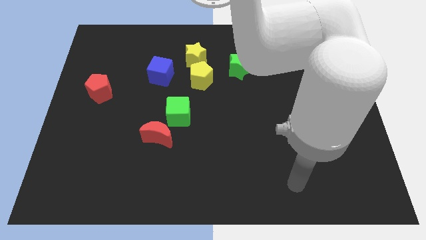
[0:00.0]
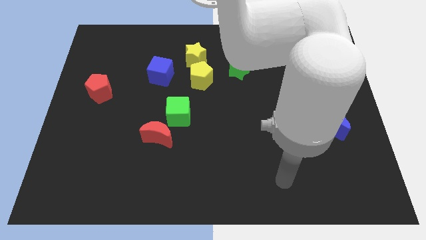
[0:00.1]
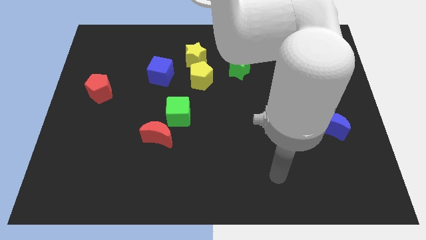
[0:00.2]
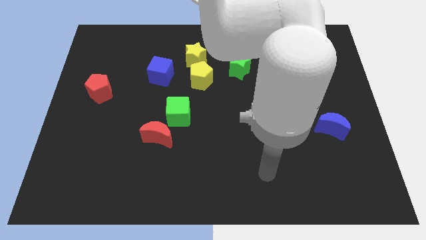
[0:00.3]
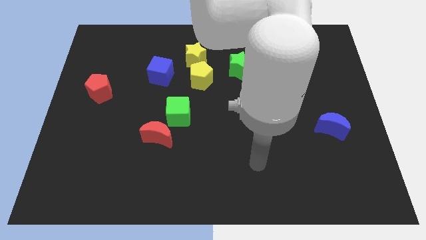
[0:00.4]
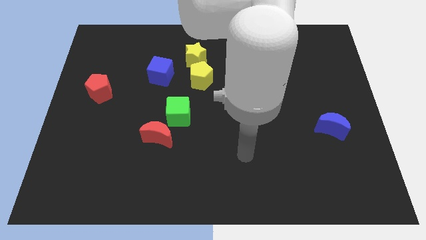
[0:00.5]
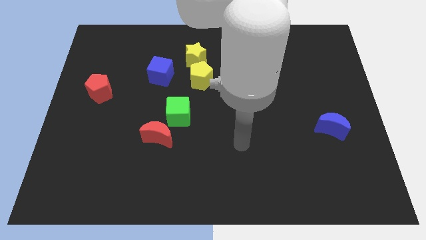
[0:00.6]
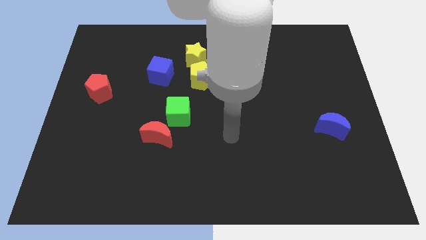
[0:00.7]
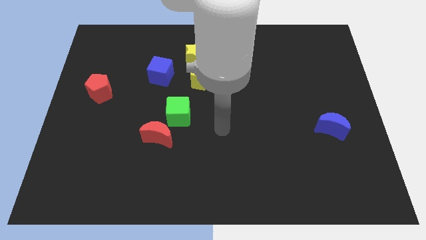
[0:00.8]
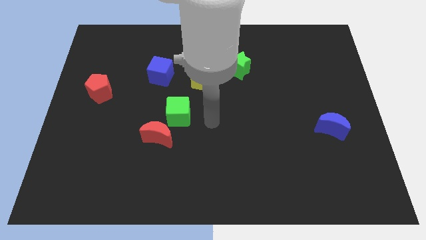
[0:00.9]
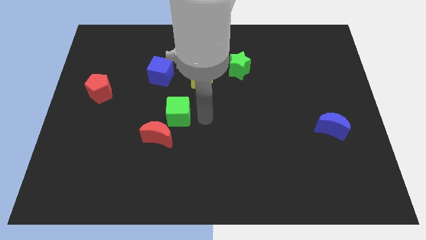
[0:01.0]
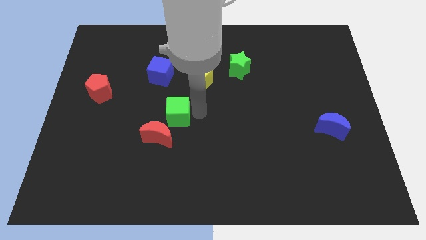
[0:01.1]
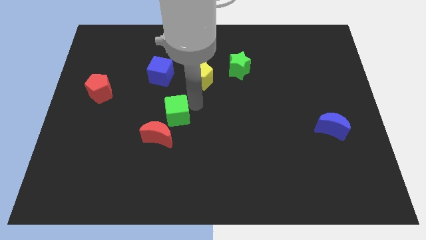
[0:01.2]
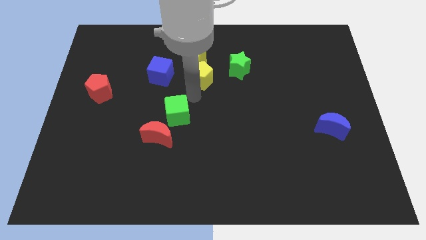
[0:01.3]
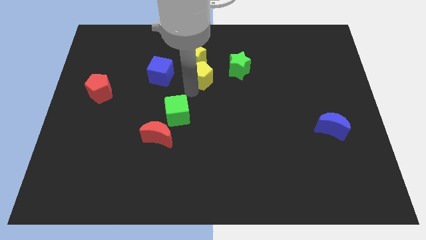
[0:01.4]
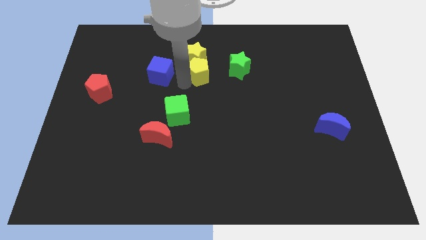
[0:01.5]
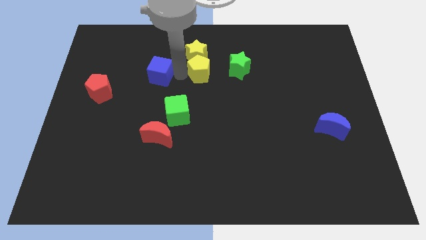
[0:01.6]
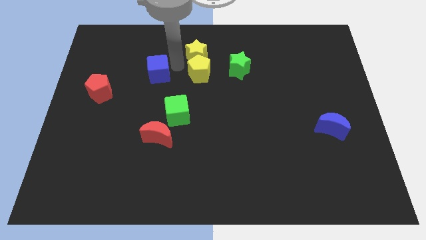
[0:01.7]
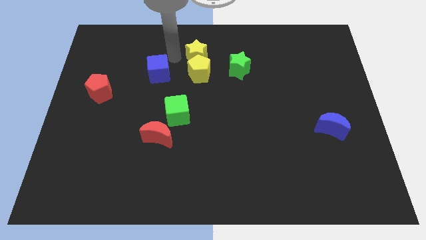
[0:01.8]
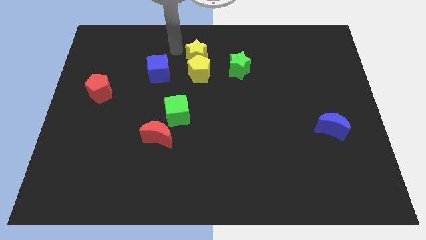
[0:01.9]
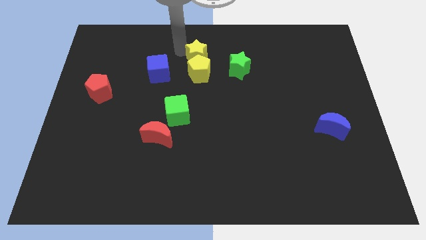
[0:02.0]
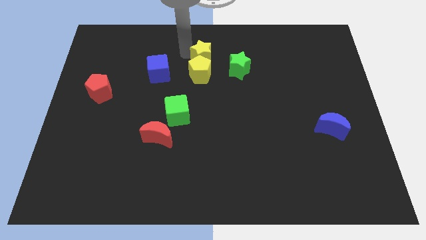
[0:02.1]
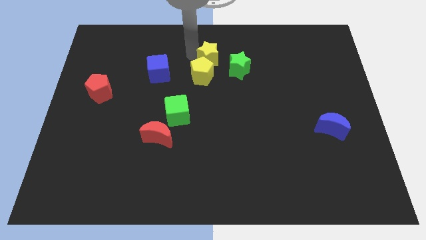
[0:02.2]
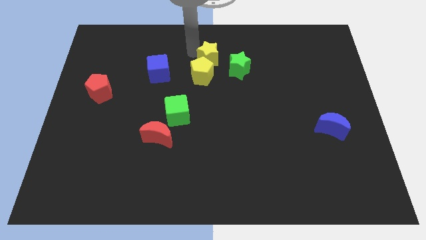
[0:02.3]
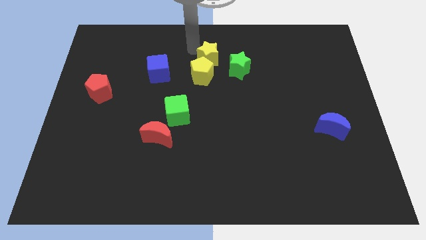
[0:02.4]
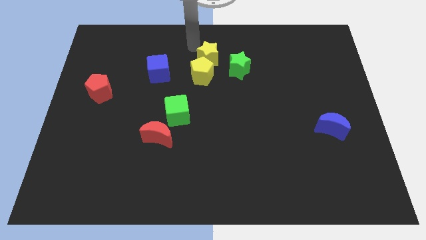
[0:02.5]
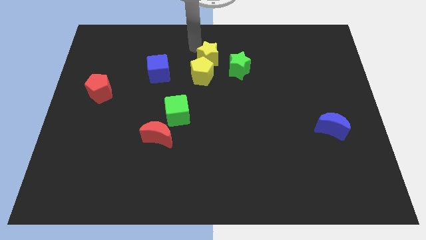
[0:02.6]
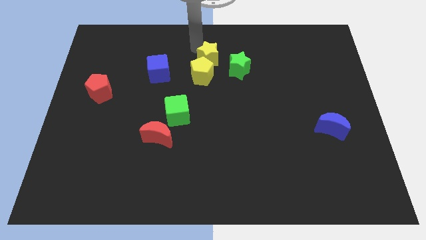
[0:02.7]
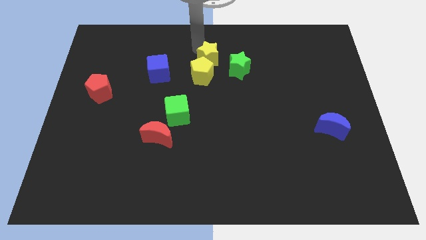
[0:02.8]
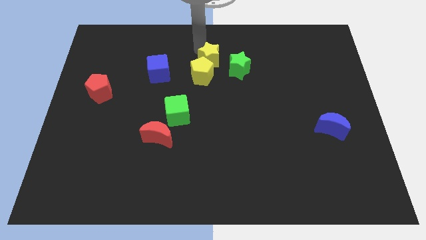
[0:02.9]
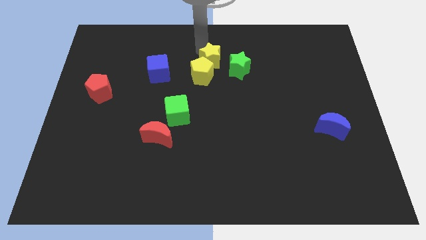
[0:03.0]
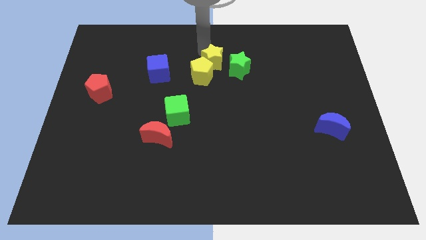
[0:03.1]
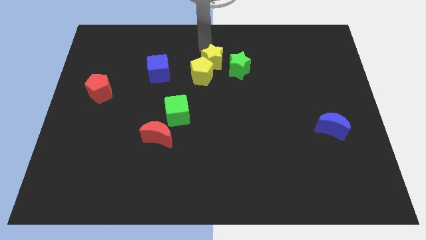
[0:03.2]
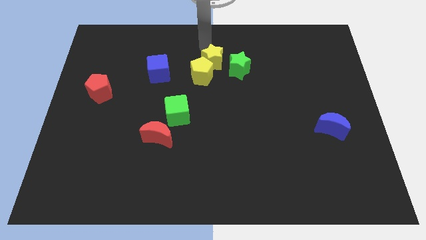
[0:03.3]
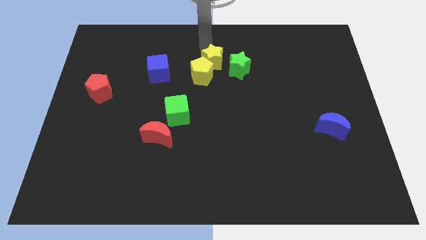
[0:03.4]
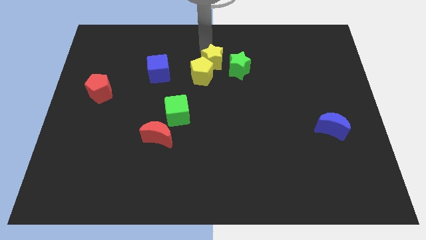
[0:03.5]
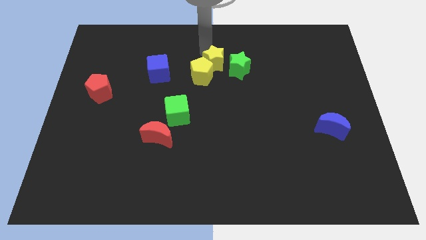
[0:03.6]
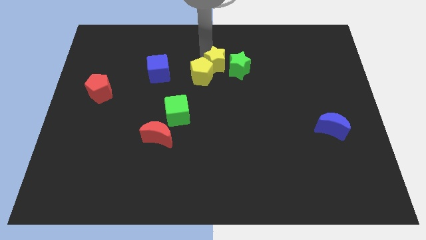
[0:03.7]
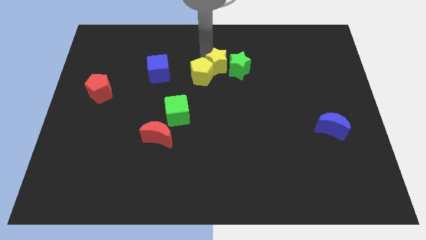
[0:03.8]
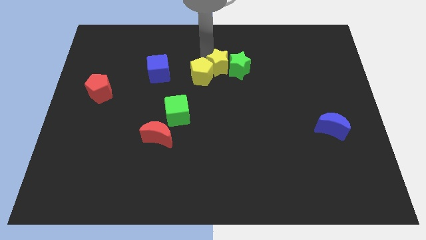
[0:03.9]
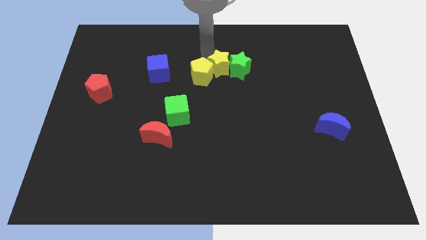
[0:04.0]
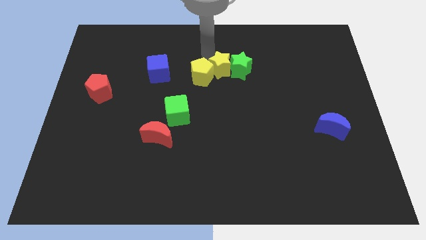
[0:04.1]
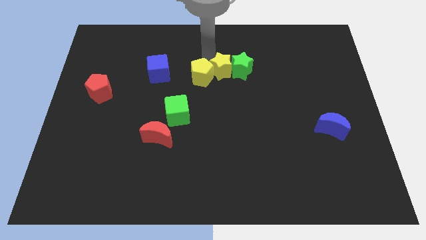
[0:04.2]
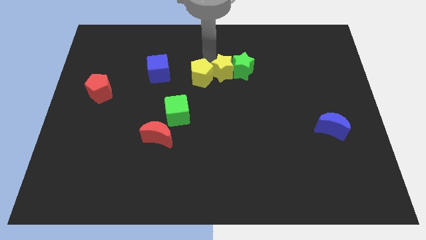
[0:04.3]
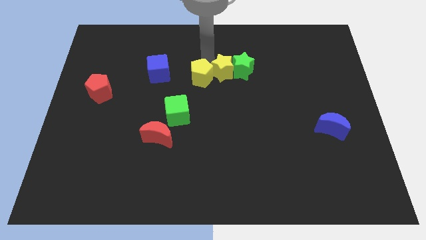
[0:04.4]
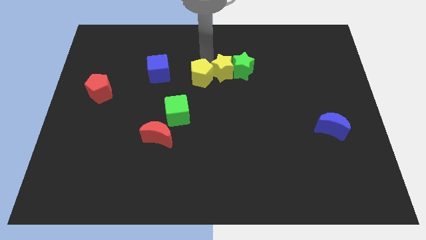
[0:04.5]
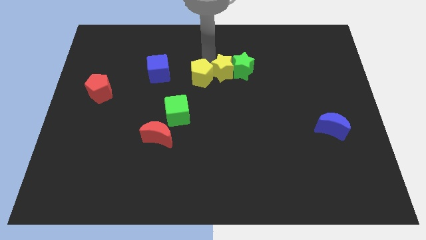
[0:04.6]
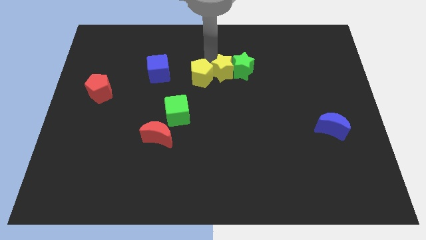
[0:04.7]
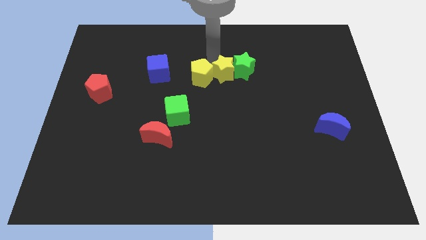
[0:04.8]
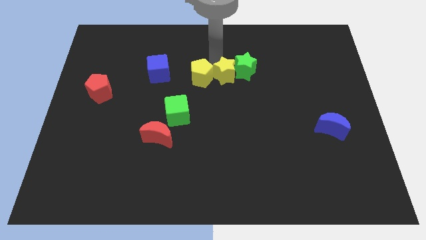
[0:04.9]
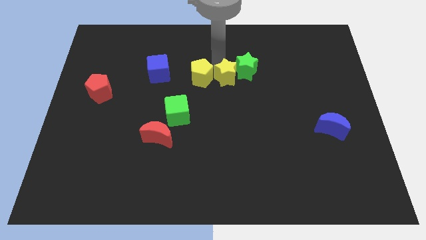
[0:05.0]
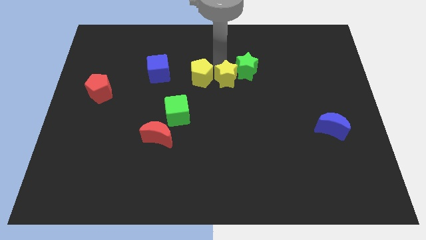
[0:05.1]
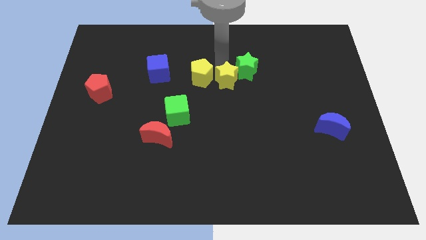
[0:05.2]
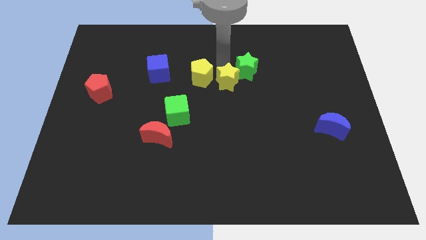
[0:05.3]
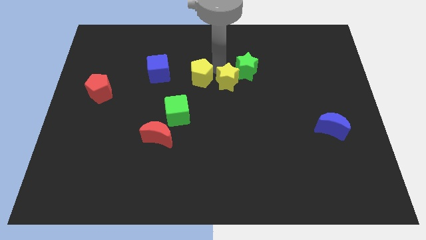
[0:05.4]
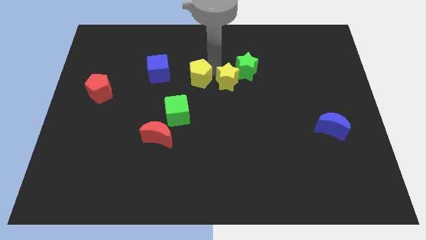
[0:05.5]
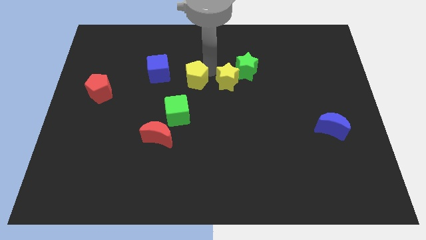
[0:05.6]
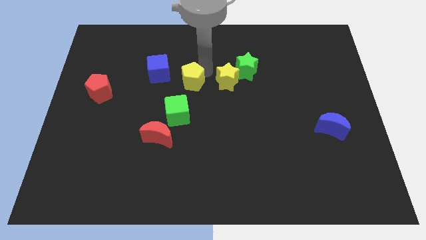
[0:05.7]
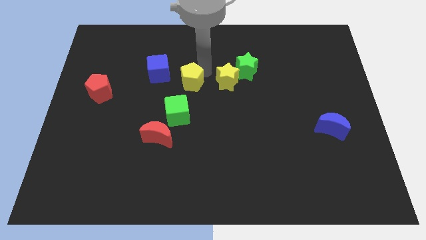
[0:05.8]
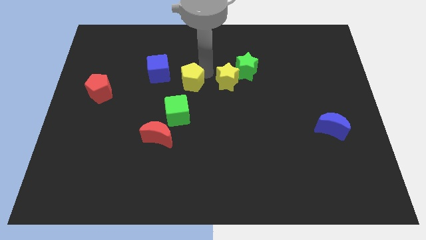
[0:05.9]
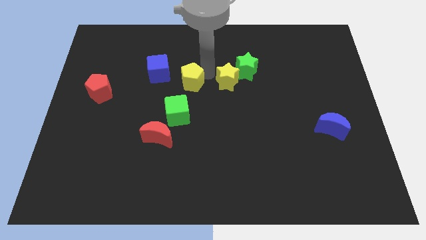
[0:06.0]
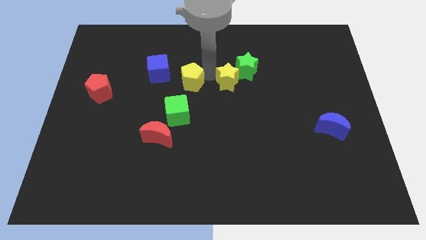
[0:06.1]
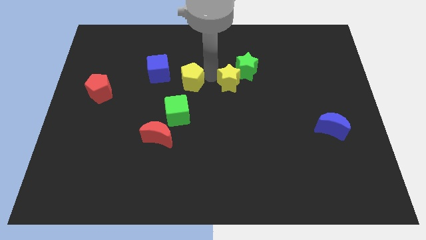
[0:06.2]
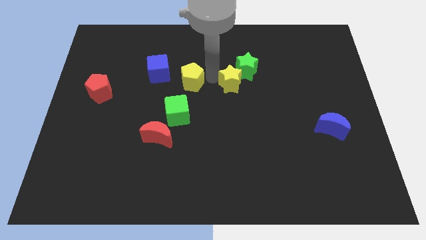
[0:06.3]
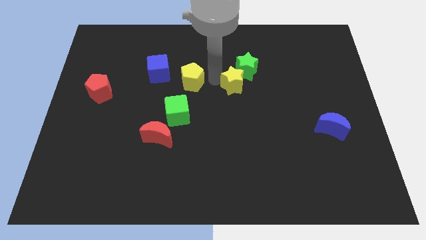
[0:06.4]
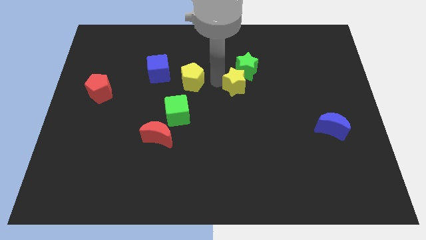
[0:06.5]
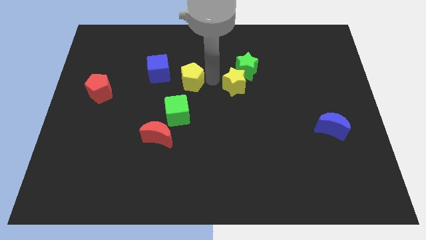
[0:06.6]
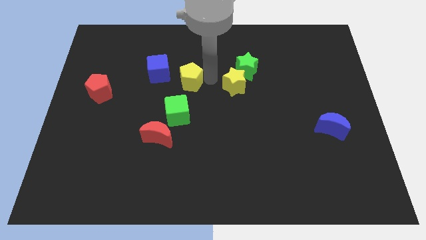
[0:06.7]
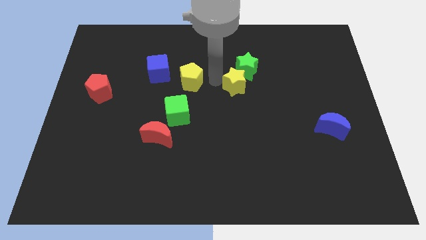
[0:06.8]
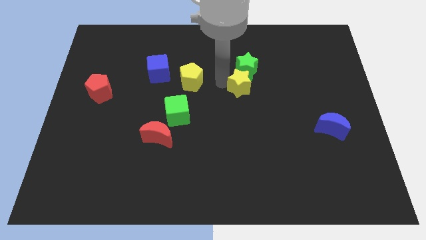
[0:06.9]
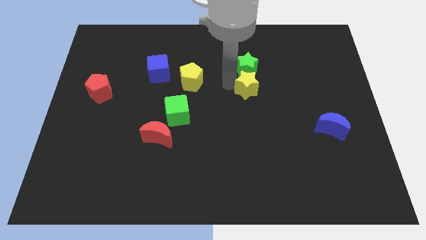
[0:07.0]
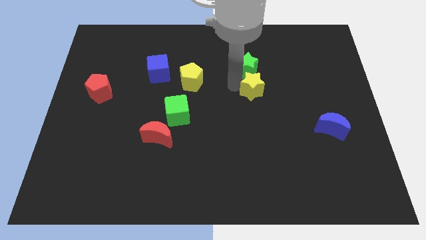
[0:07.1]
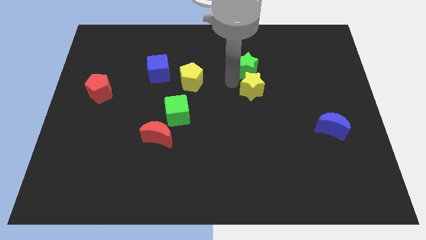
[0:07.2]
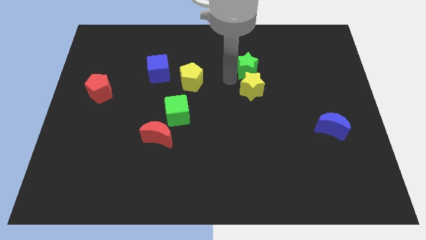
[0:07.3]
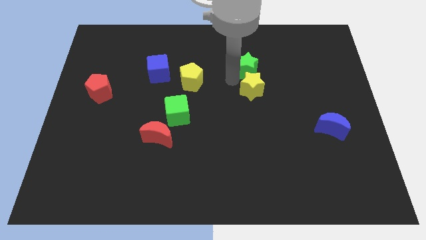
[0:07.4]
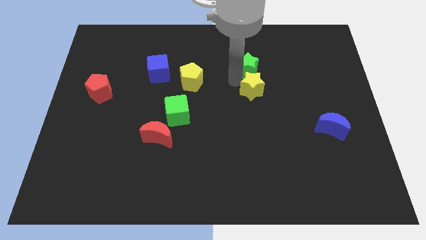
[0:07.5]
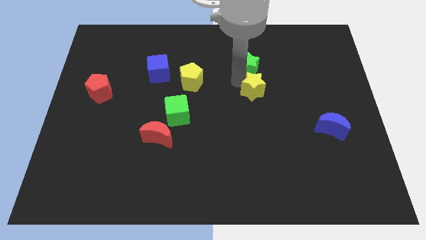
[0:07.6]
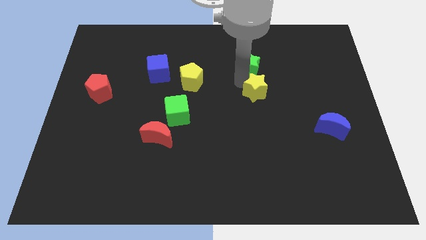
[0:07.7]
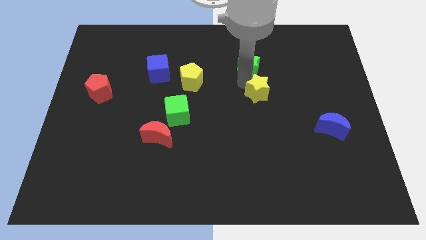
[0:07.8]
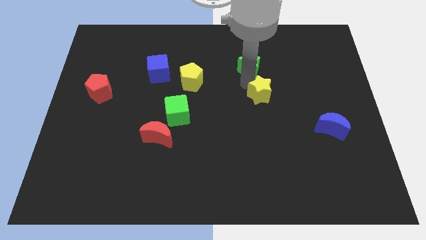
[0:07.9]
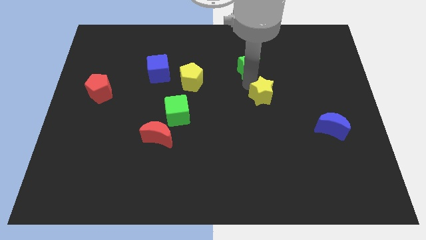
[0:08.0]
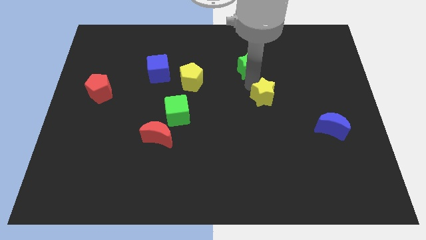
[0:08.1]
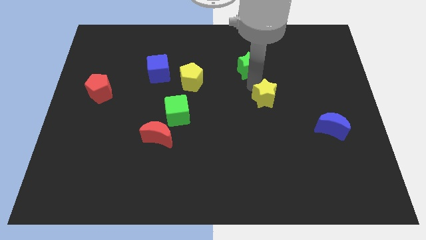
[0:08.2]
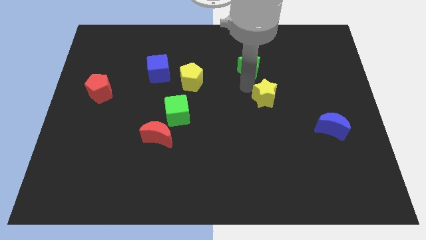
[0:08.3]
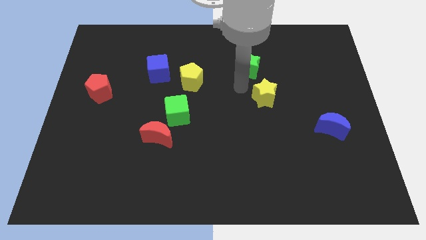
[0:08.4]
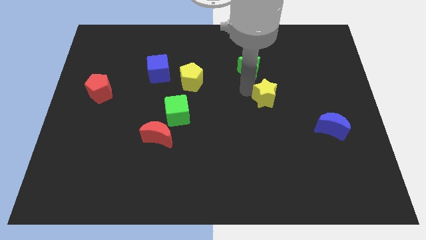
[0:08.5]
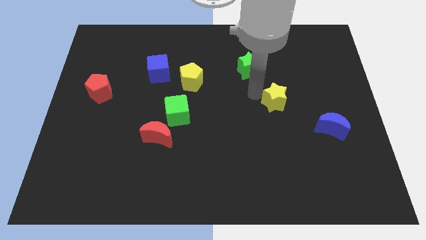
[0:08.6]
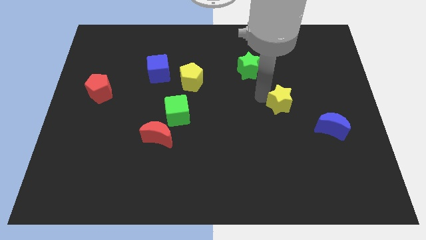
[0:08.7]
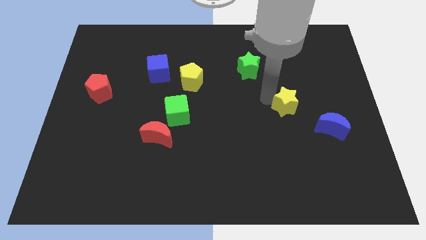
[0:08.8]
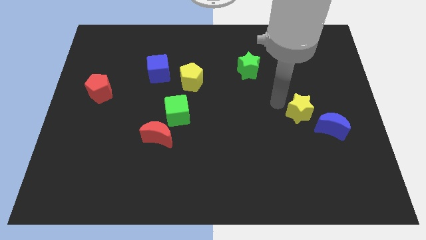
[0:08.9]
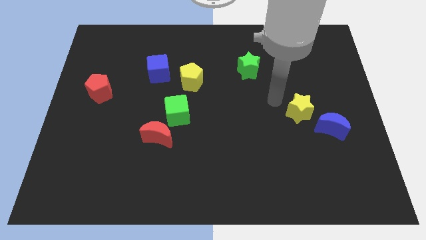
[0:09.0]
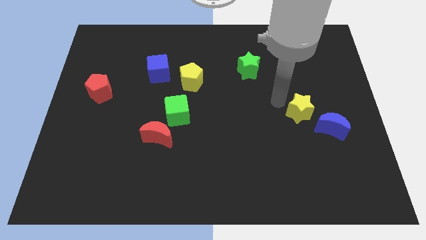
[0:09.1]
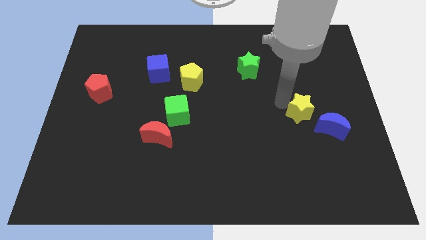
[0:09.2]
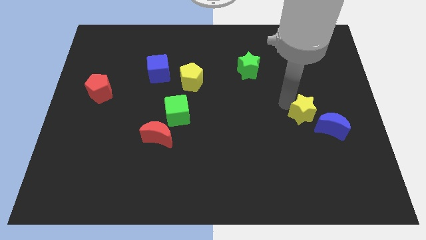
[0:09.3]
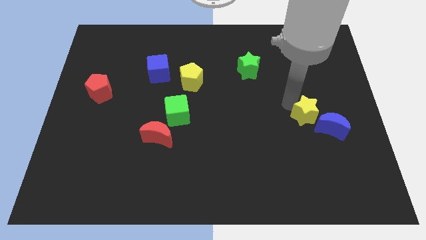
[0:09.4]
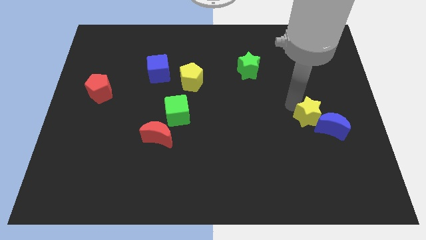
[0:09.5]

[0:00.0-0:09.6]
push the yellow star next to the blue moon
